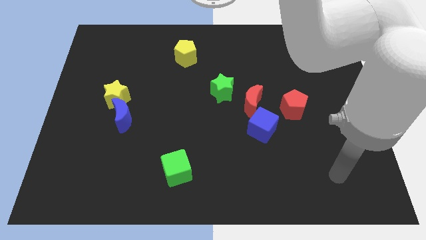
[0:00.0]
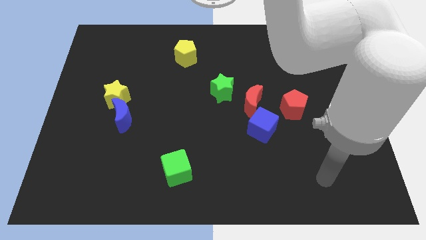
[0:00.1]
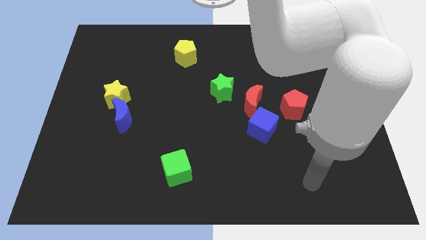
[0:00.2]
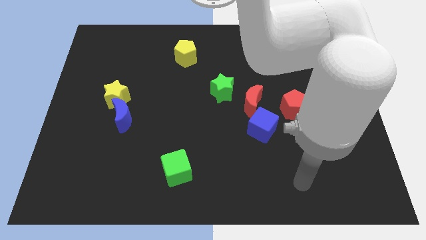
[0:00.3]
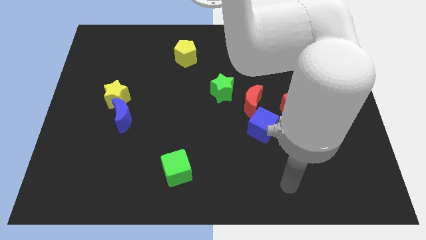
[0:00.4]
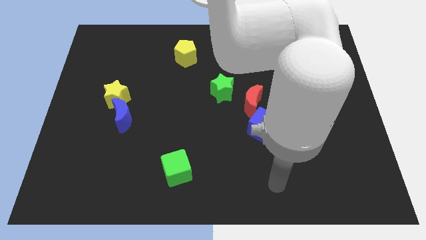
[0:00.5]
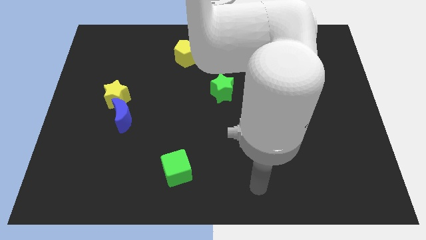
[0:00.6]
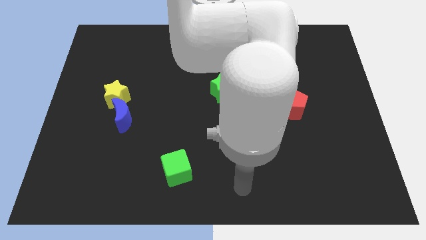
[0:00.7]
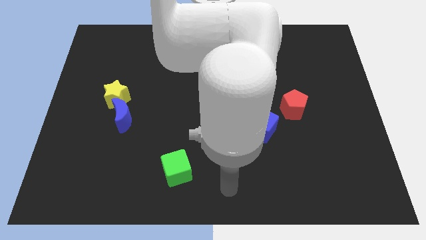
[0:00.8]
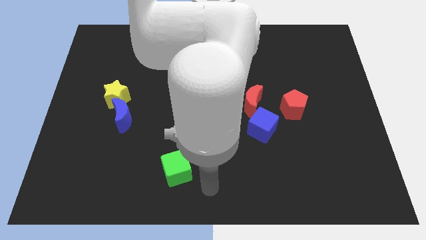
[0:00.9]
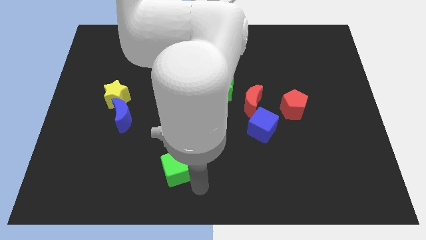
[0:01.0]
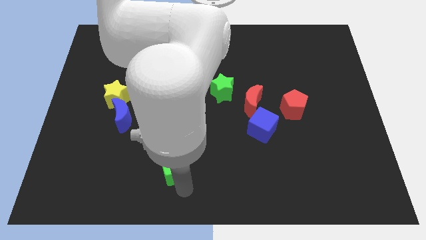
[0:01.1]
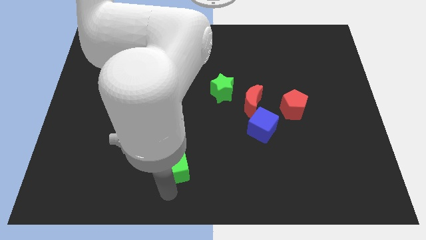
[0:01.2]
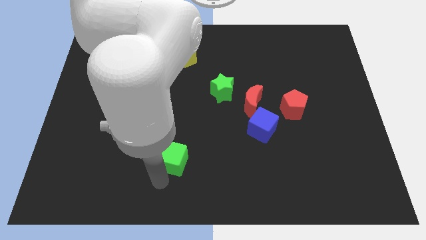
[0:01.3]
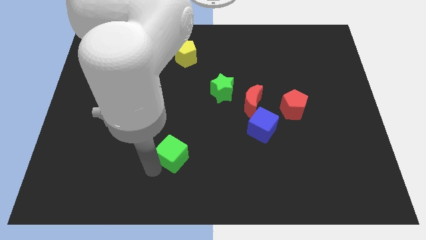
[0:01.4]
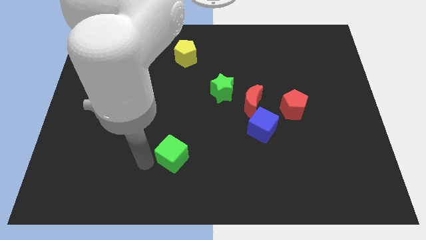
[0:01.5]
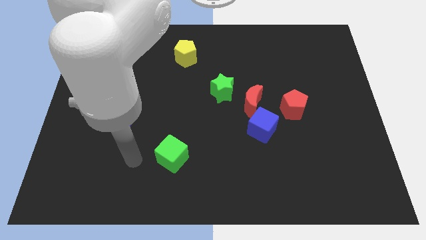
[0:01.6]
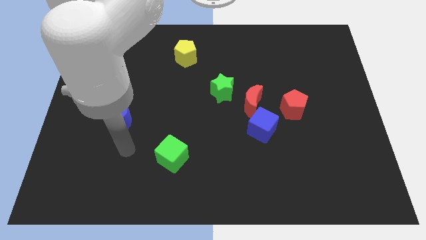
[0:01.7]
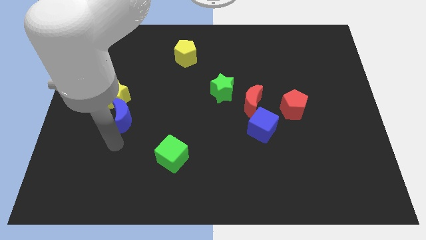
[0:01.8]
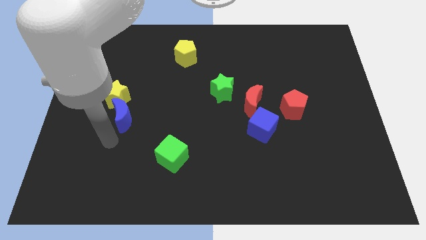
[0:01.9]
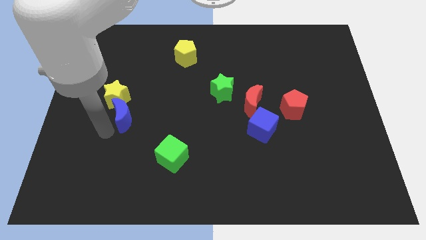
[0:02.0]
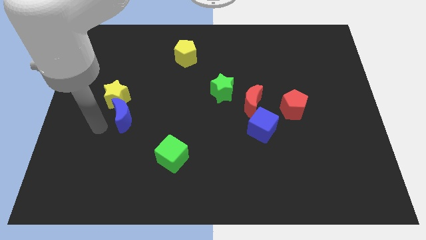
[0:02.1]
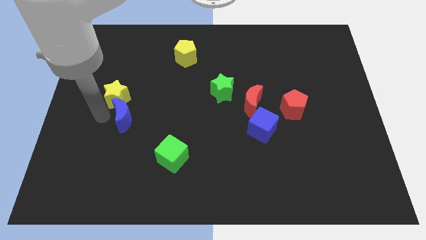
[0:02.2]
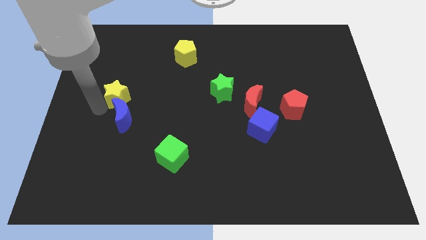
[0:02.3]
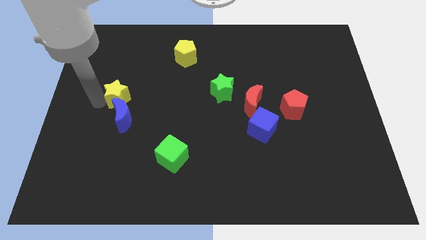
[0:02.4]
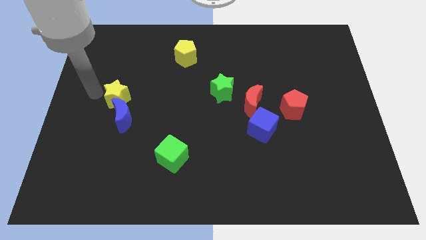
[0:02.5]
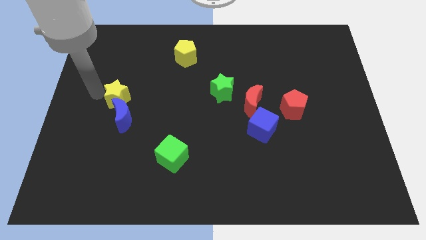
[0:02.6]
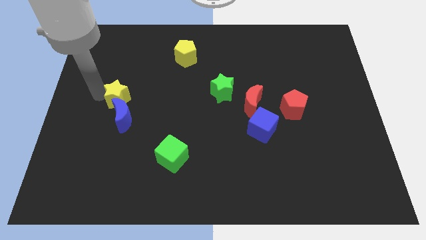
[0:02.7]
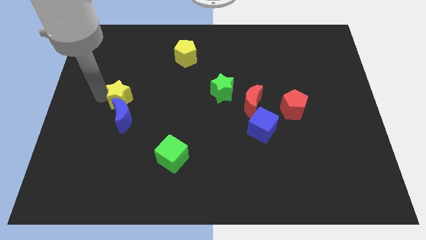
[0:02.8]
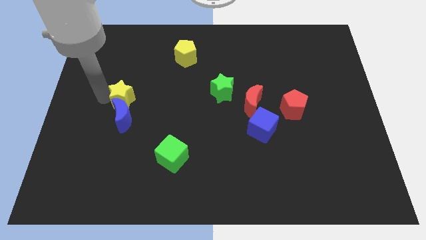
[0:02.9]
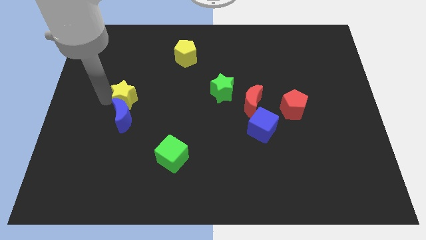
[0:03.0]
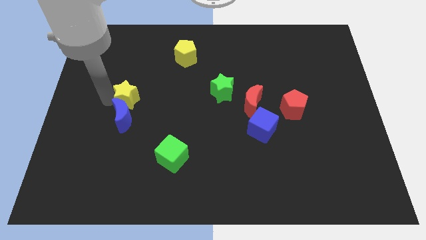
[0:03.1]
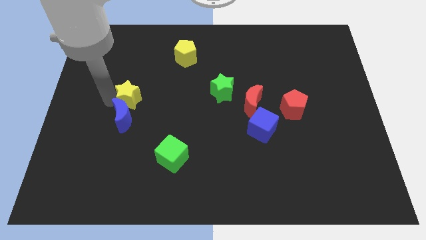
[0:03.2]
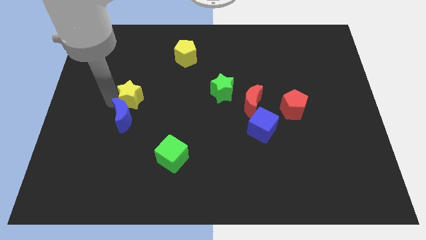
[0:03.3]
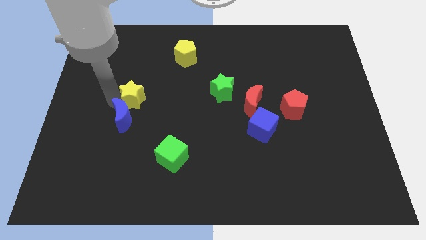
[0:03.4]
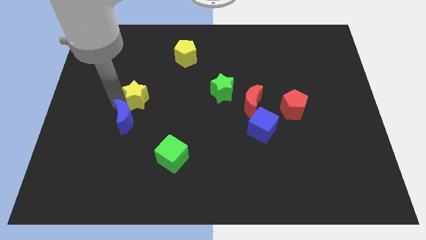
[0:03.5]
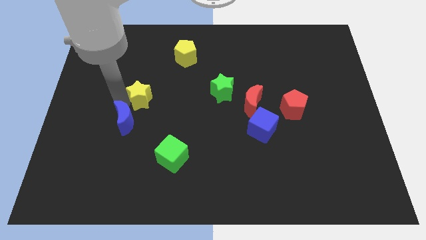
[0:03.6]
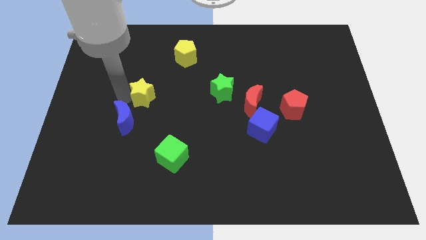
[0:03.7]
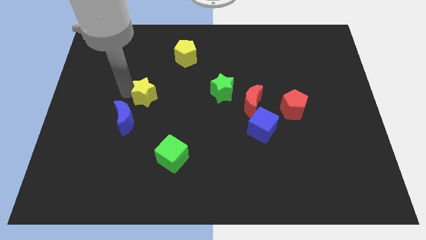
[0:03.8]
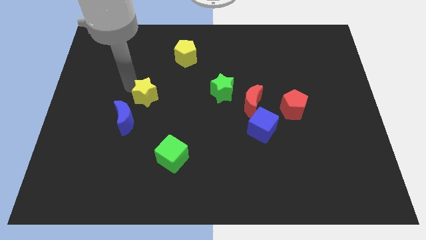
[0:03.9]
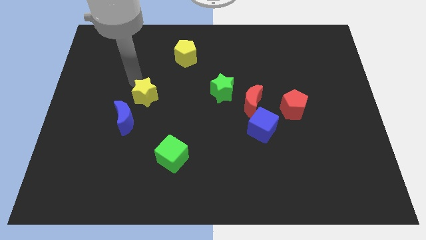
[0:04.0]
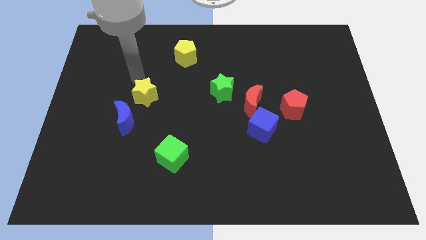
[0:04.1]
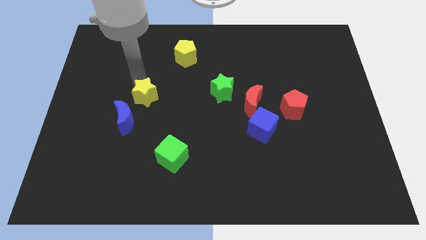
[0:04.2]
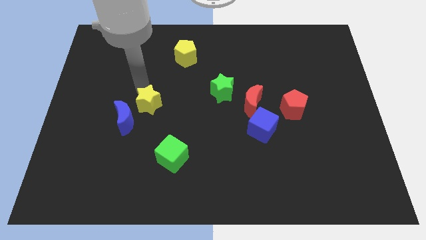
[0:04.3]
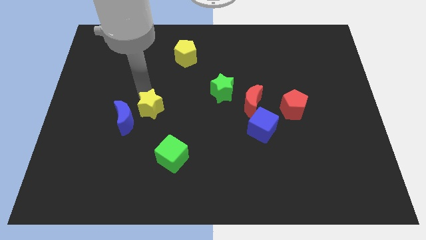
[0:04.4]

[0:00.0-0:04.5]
slightly slide the yellow star downwards and right diagonally

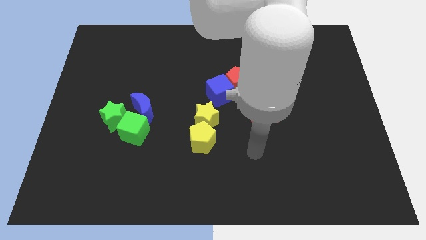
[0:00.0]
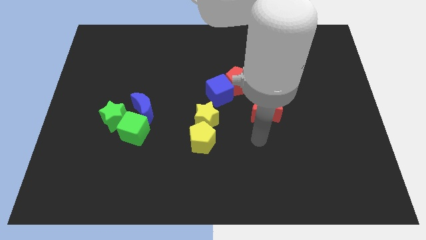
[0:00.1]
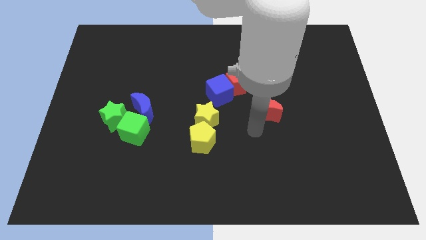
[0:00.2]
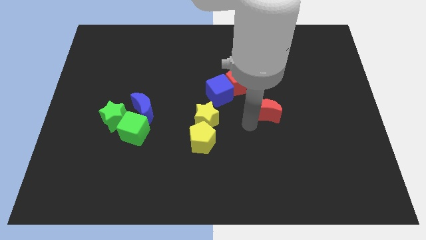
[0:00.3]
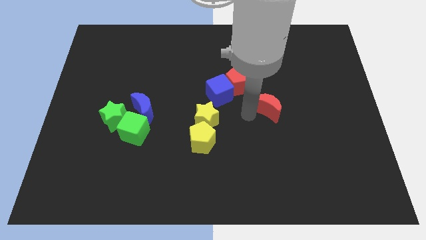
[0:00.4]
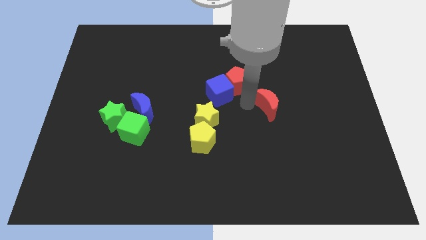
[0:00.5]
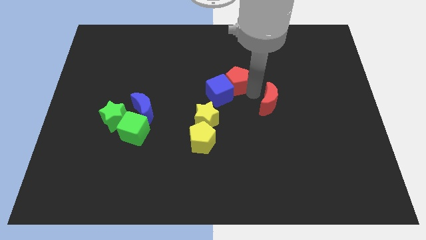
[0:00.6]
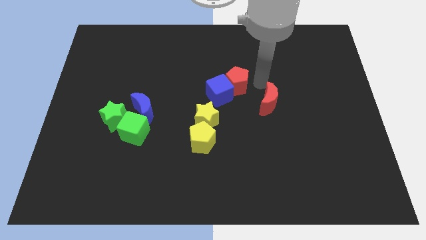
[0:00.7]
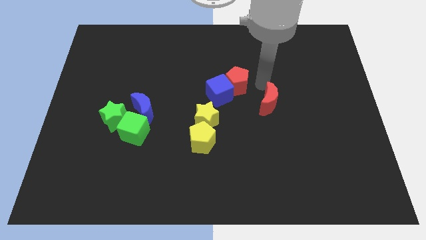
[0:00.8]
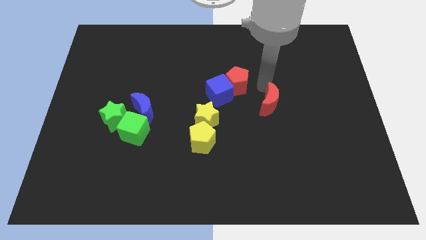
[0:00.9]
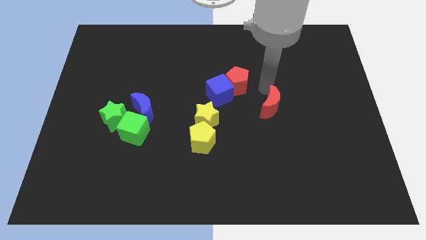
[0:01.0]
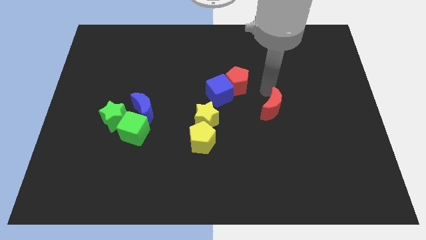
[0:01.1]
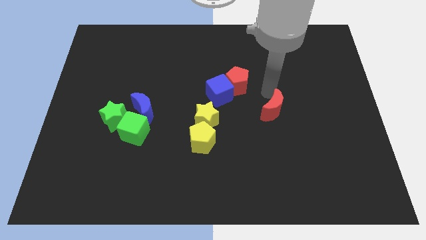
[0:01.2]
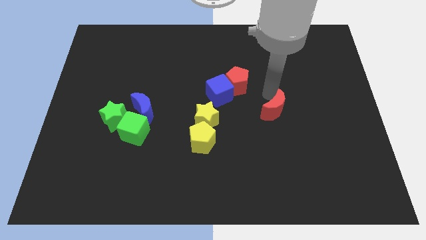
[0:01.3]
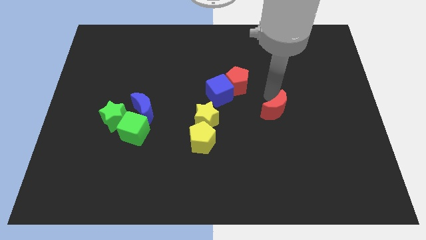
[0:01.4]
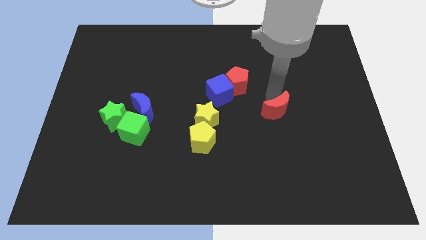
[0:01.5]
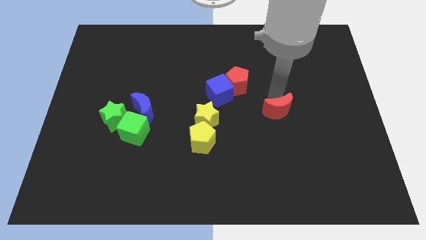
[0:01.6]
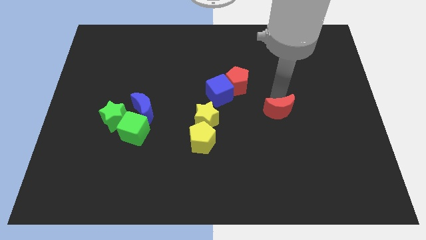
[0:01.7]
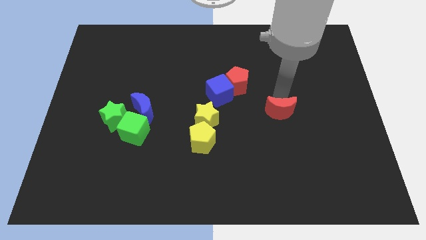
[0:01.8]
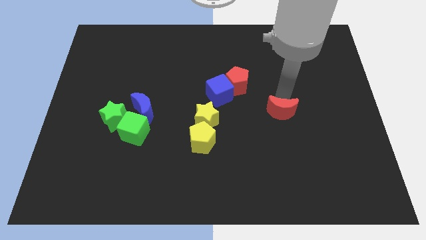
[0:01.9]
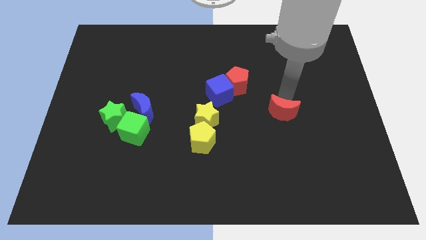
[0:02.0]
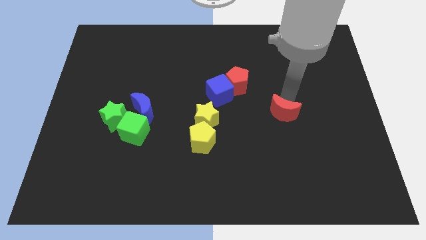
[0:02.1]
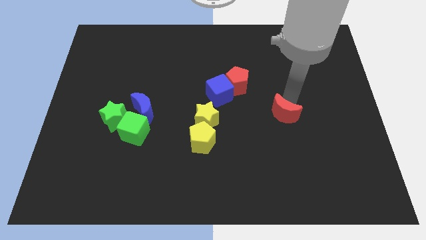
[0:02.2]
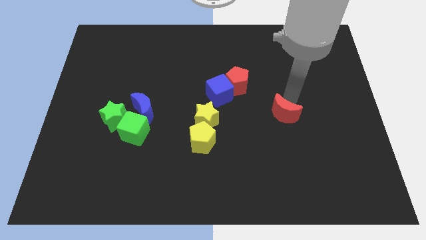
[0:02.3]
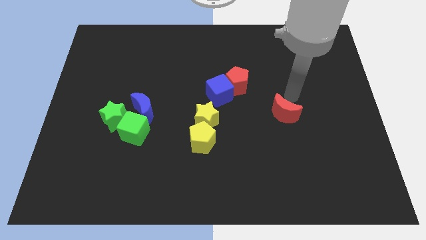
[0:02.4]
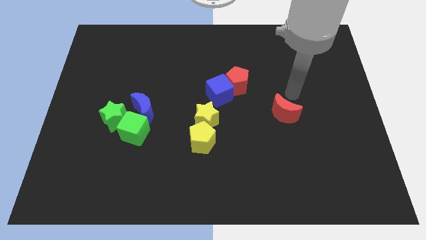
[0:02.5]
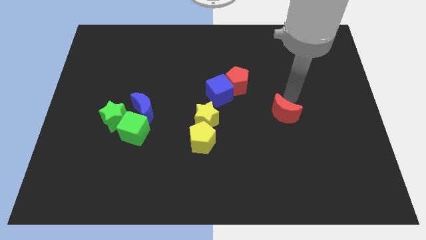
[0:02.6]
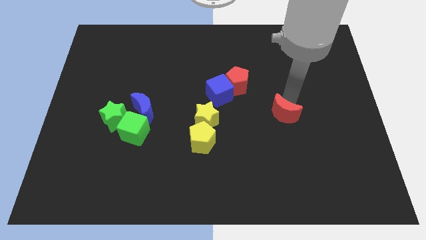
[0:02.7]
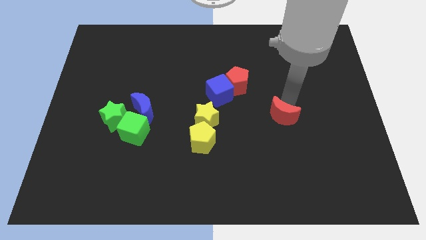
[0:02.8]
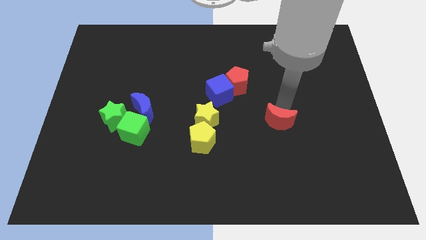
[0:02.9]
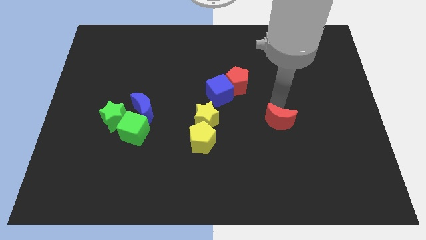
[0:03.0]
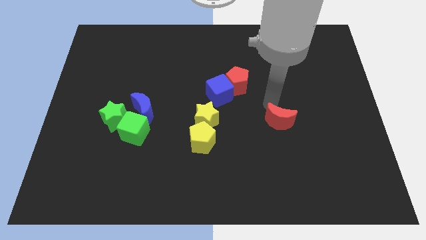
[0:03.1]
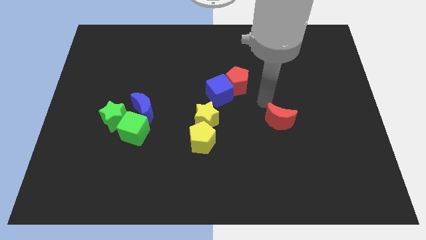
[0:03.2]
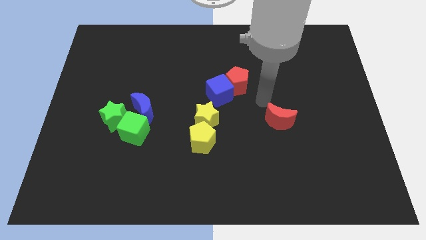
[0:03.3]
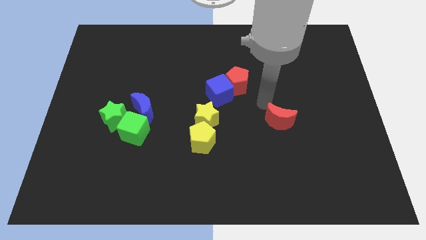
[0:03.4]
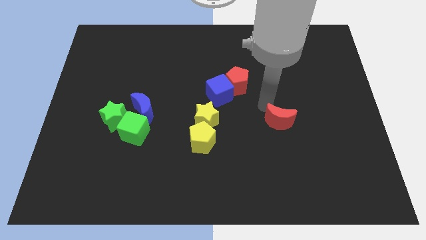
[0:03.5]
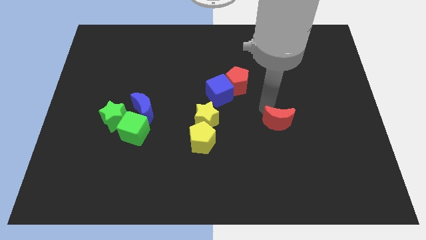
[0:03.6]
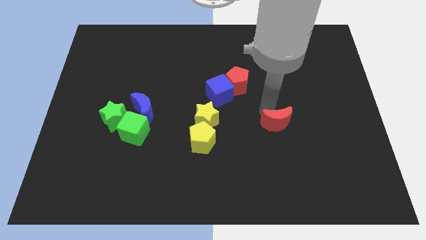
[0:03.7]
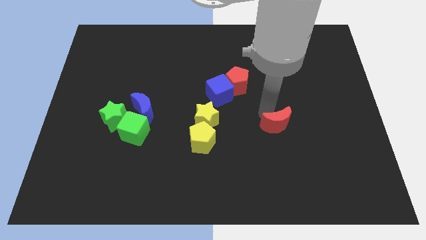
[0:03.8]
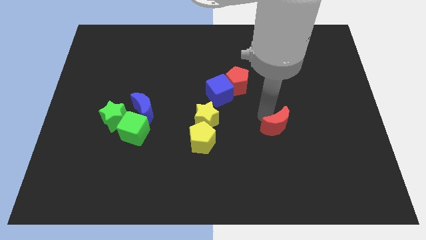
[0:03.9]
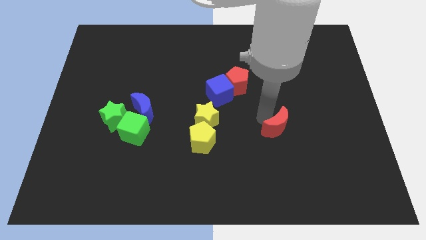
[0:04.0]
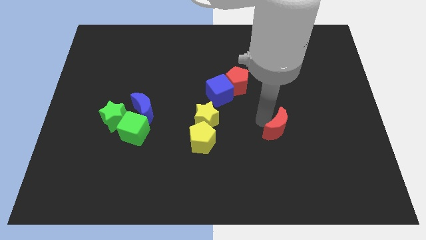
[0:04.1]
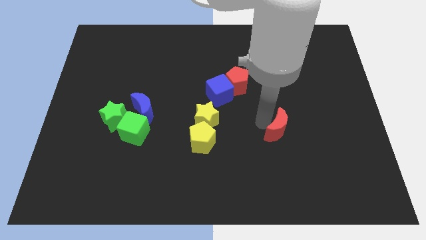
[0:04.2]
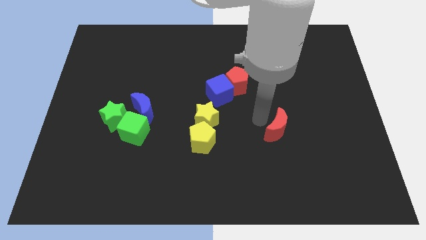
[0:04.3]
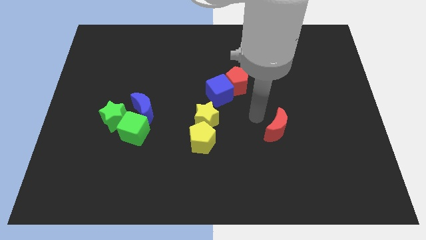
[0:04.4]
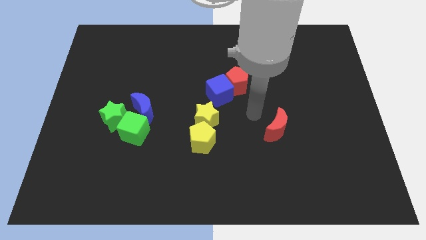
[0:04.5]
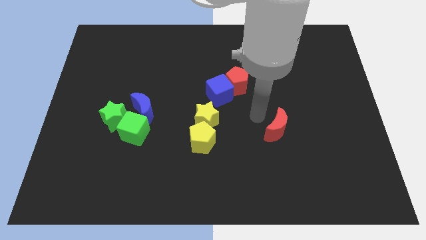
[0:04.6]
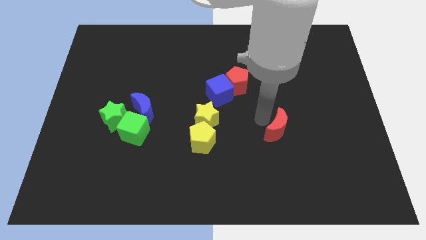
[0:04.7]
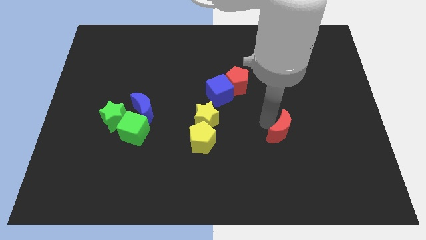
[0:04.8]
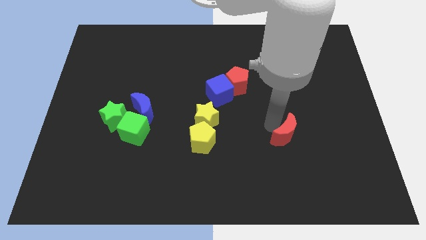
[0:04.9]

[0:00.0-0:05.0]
push the red moon a little bit downwards and right diagonally
